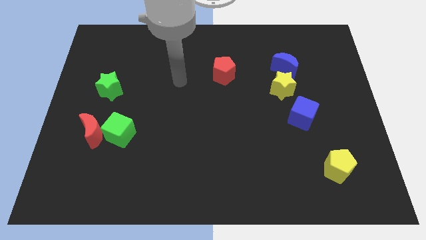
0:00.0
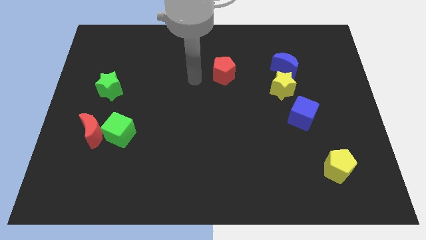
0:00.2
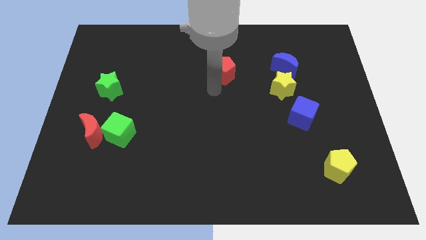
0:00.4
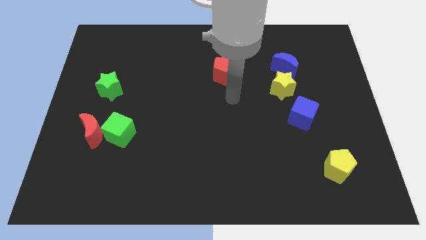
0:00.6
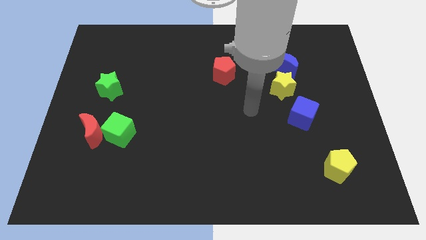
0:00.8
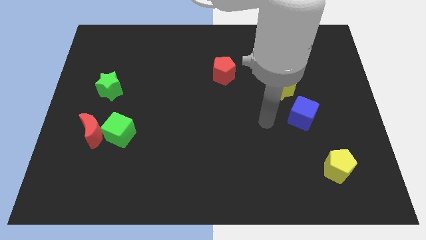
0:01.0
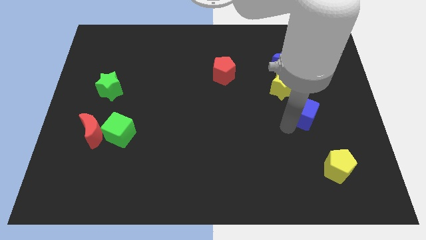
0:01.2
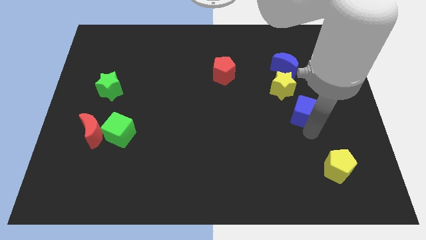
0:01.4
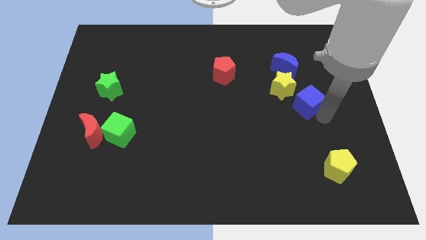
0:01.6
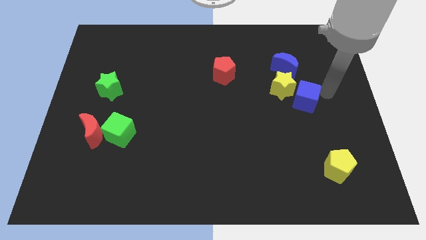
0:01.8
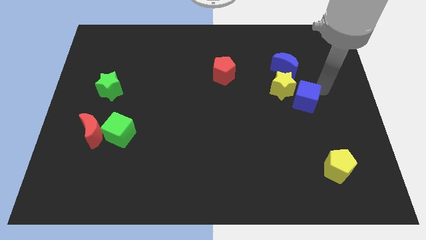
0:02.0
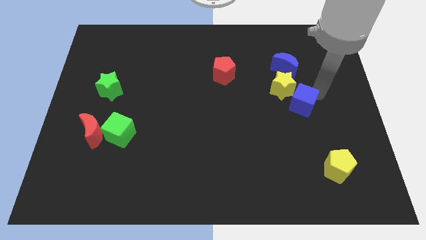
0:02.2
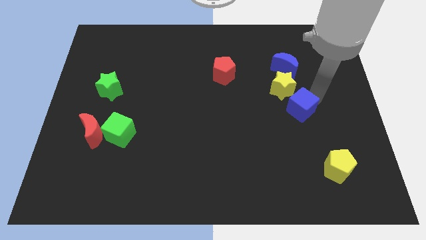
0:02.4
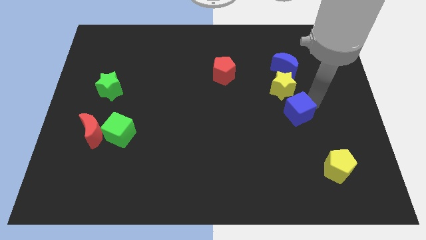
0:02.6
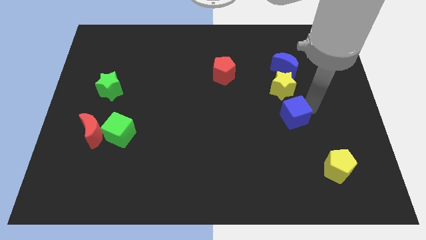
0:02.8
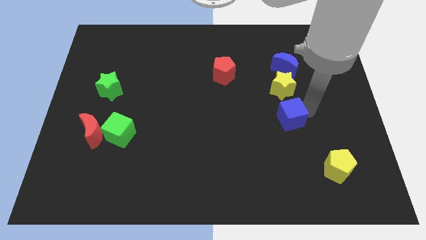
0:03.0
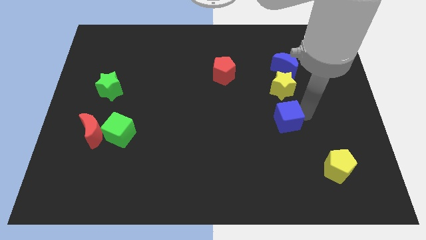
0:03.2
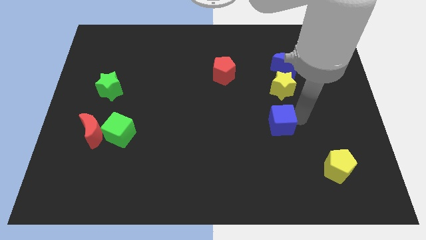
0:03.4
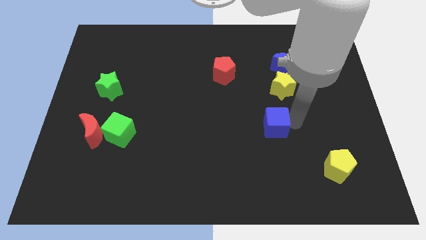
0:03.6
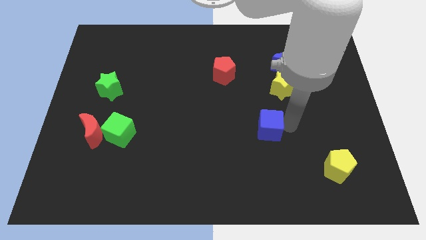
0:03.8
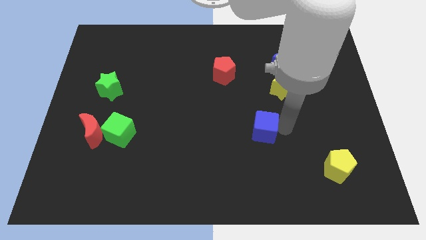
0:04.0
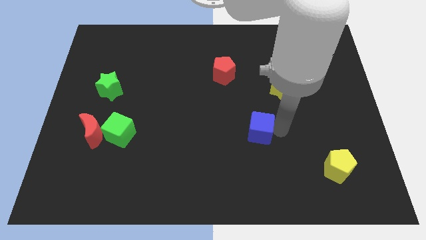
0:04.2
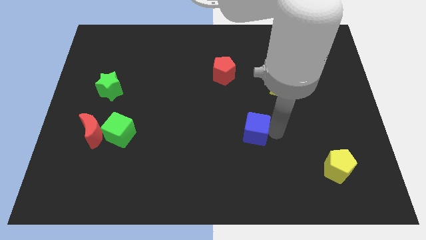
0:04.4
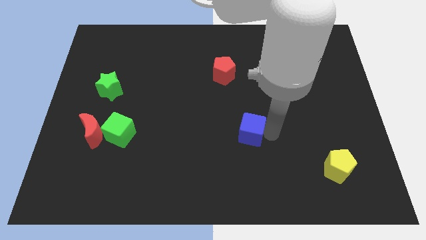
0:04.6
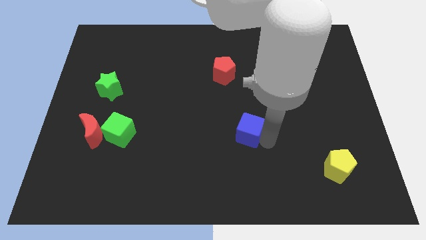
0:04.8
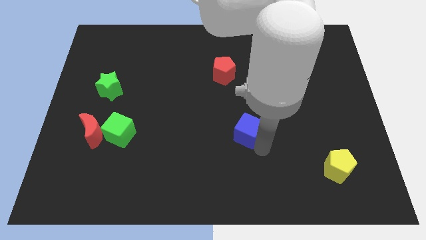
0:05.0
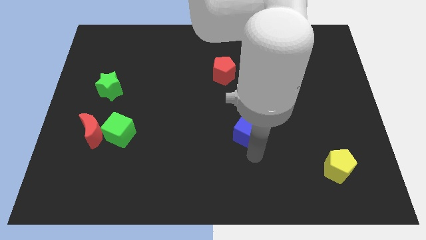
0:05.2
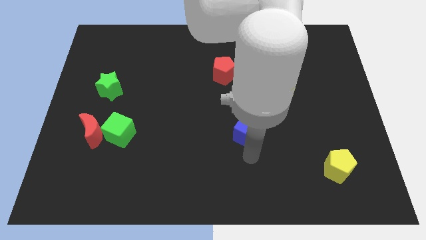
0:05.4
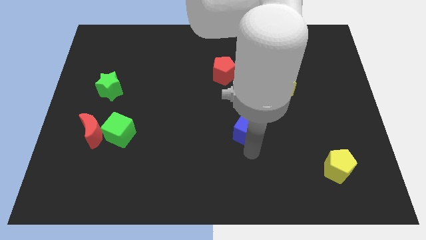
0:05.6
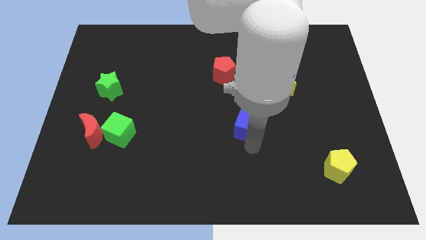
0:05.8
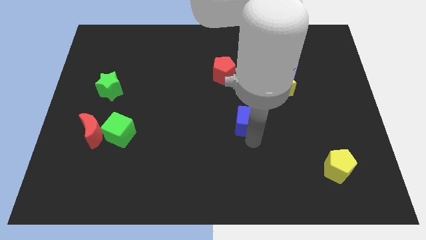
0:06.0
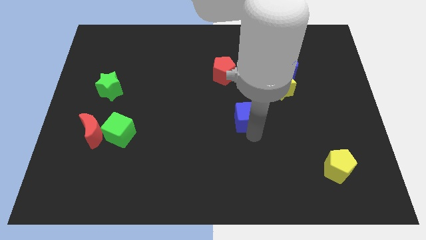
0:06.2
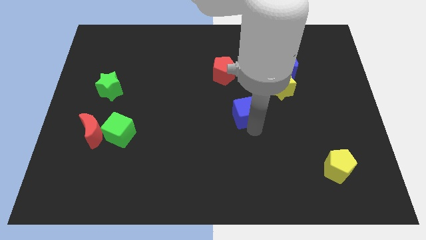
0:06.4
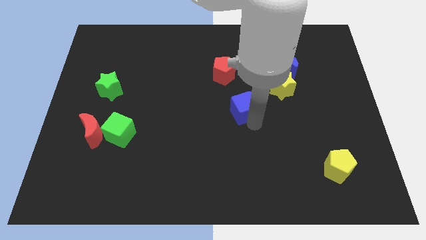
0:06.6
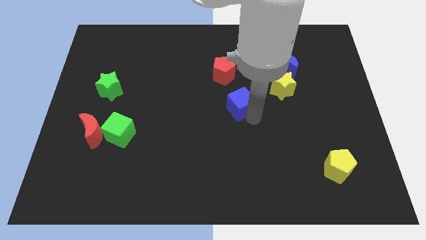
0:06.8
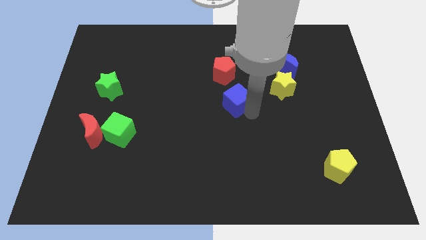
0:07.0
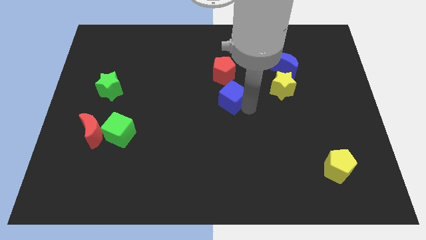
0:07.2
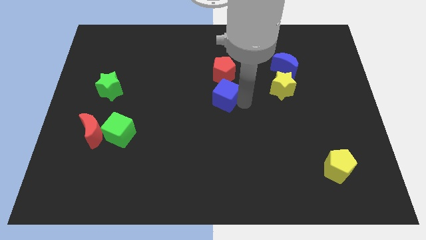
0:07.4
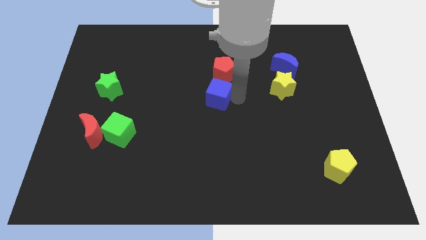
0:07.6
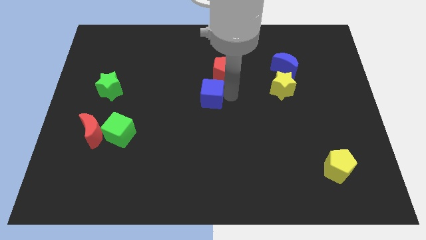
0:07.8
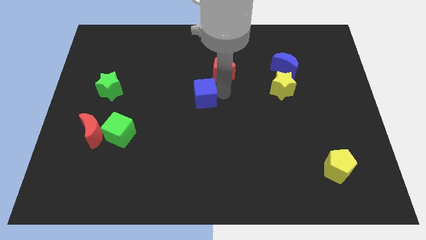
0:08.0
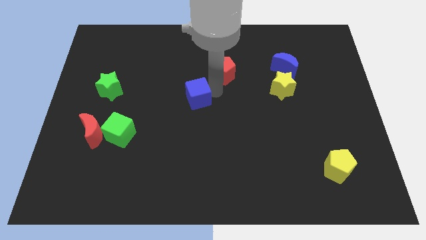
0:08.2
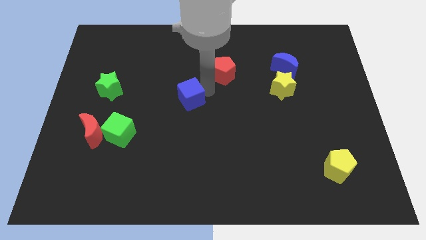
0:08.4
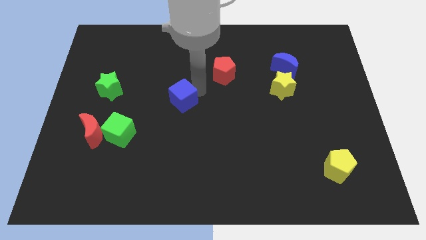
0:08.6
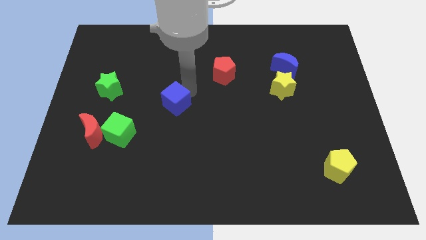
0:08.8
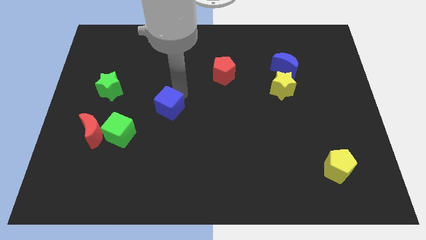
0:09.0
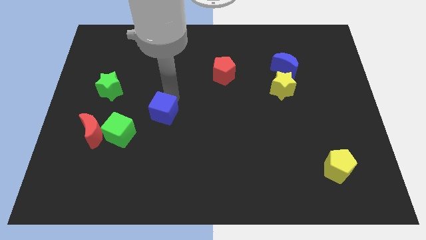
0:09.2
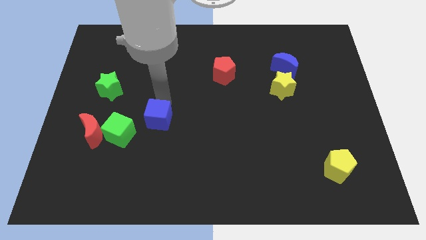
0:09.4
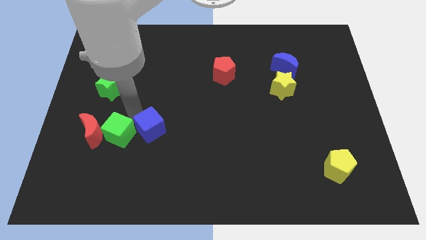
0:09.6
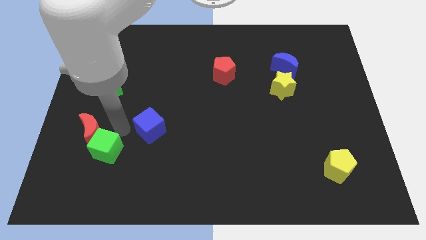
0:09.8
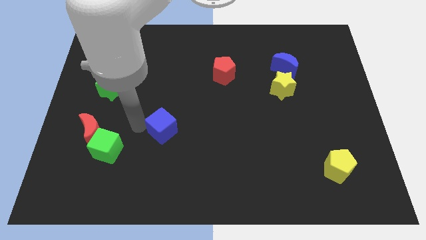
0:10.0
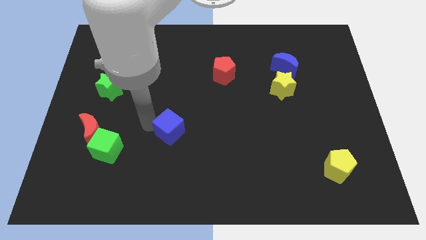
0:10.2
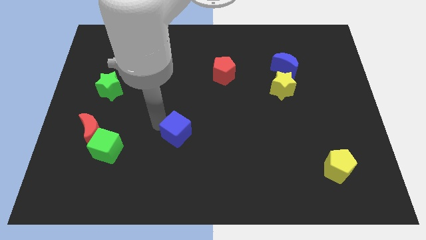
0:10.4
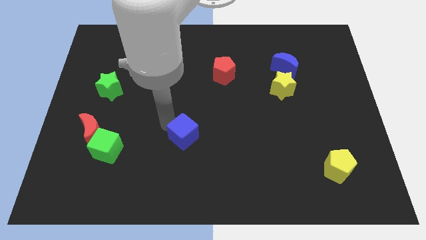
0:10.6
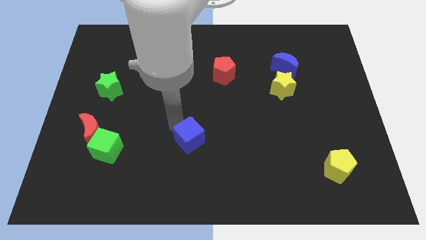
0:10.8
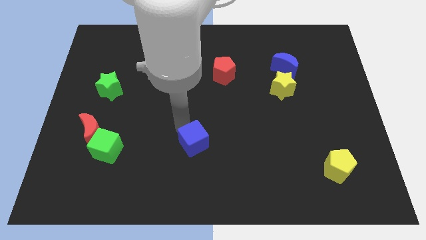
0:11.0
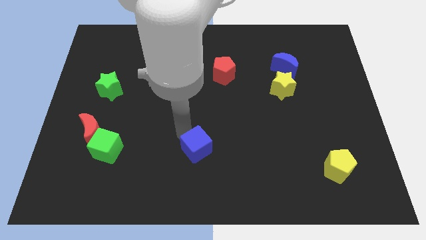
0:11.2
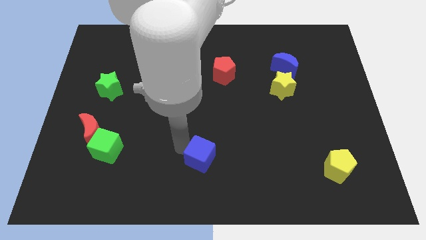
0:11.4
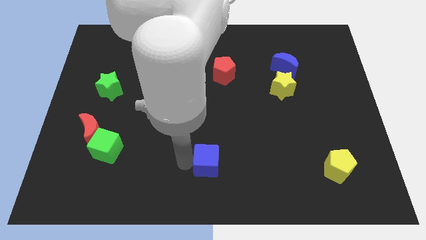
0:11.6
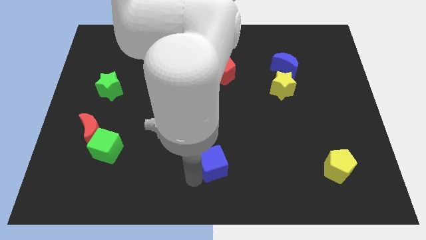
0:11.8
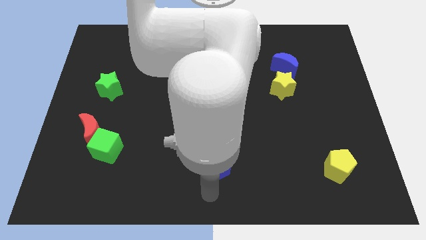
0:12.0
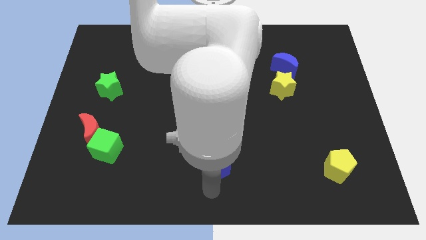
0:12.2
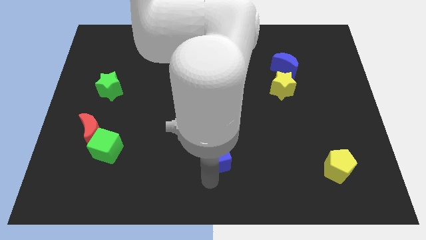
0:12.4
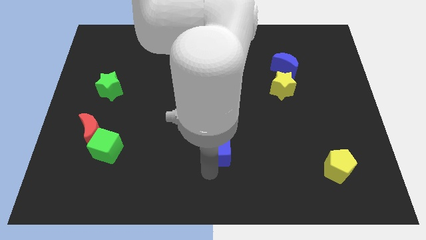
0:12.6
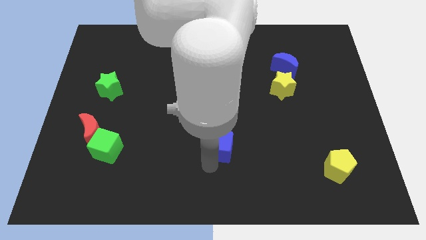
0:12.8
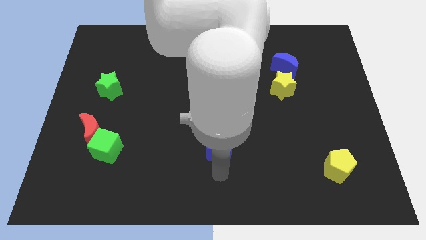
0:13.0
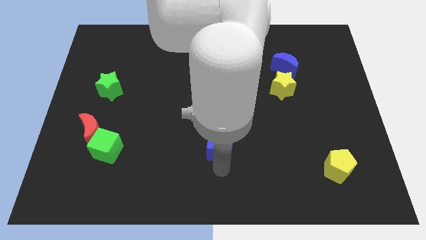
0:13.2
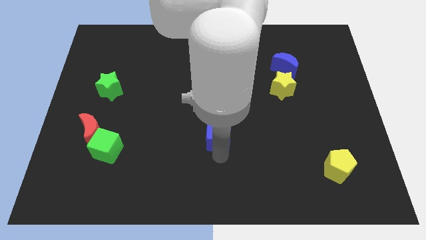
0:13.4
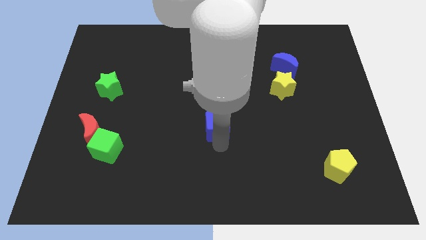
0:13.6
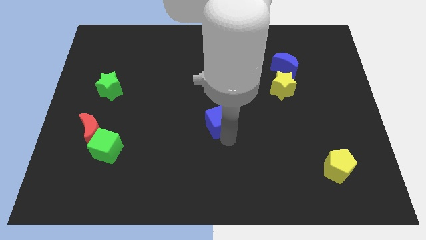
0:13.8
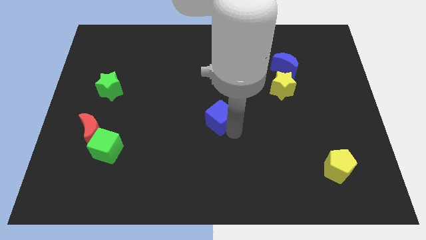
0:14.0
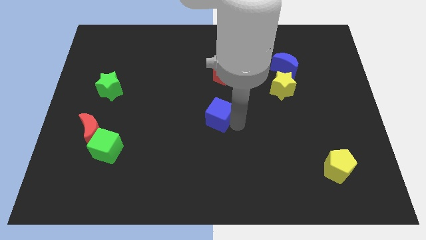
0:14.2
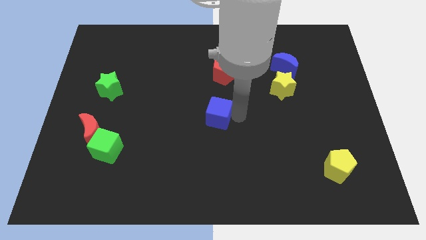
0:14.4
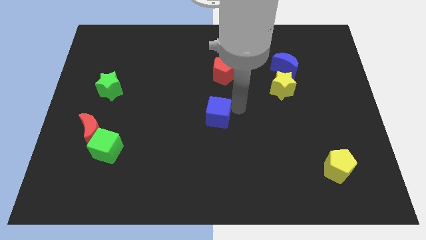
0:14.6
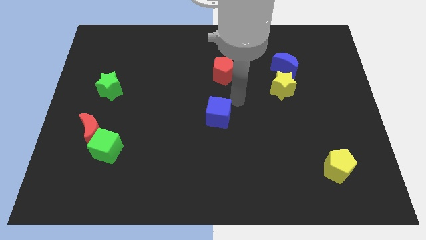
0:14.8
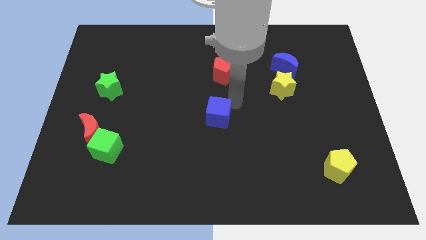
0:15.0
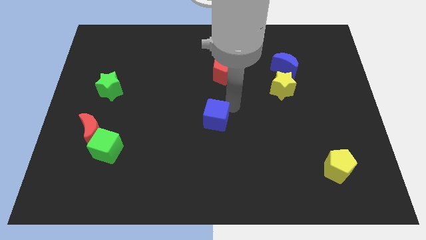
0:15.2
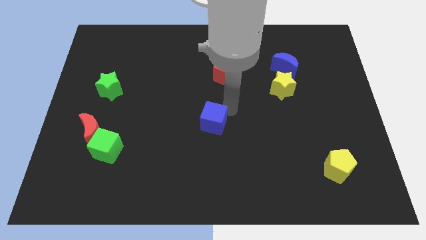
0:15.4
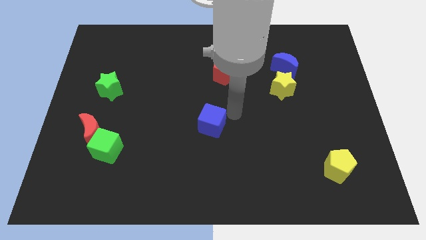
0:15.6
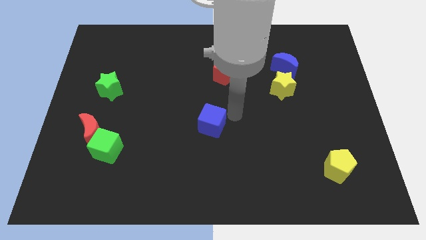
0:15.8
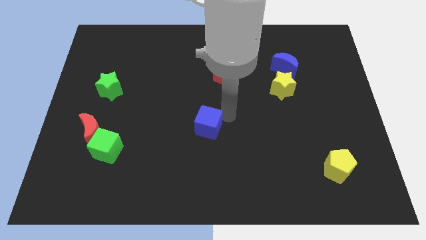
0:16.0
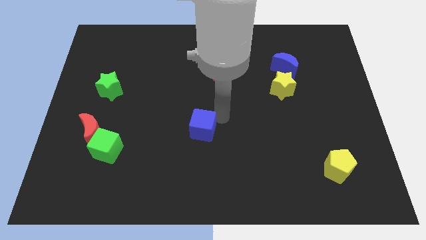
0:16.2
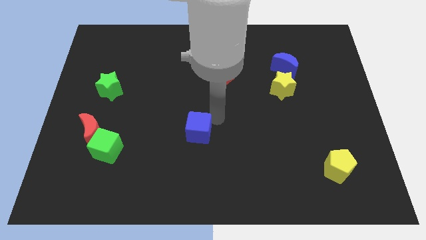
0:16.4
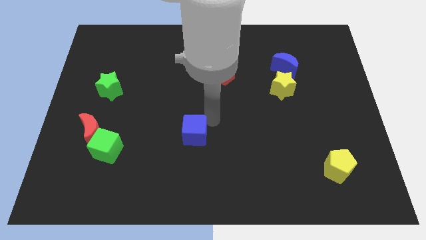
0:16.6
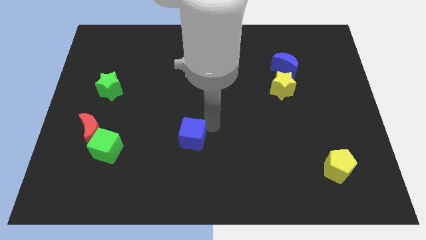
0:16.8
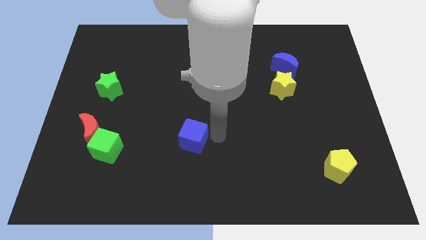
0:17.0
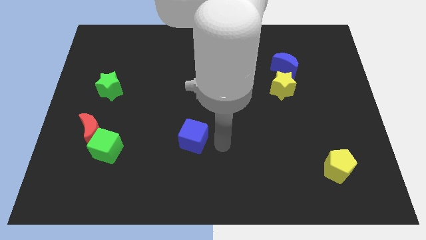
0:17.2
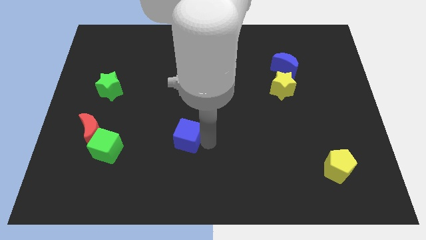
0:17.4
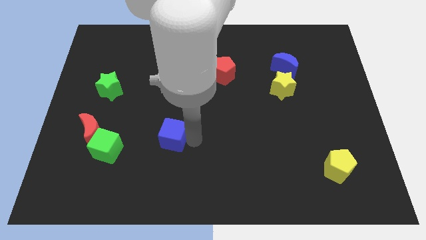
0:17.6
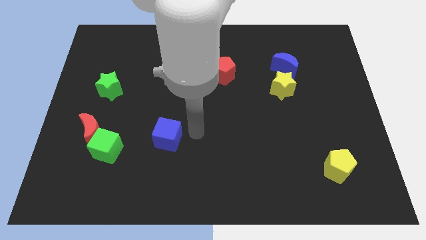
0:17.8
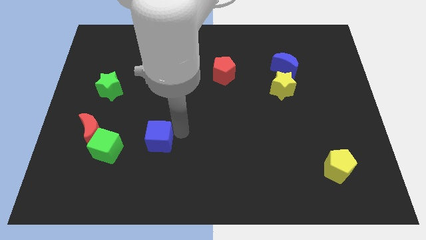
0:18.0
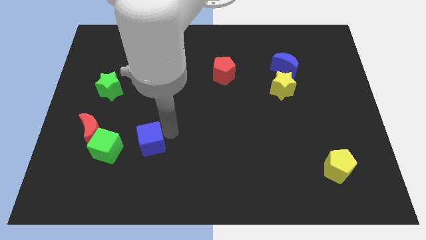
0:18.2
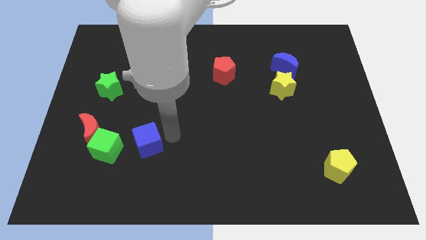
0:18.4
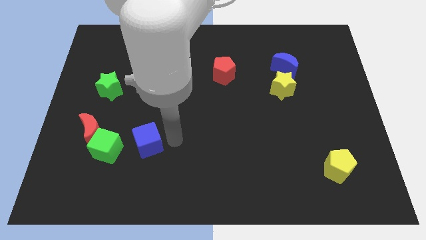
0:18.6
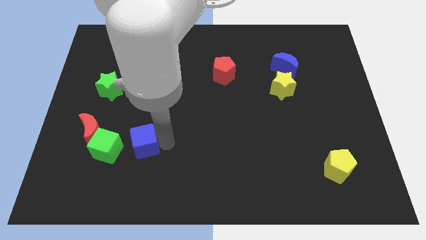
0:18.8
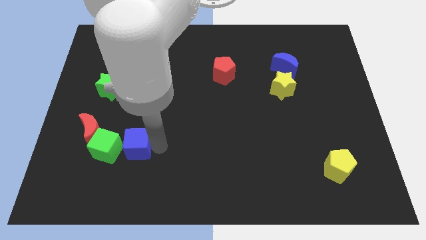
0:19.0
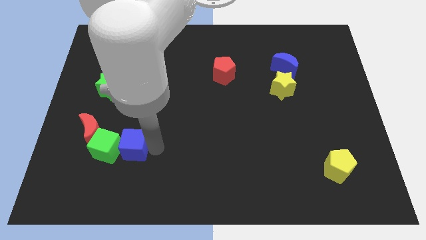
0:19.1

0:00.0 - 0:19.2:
push the blue cube next to the green cube
